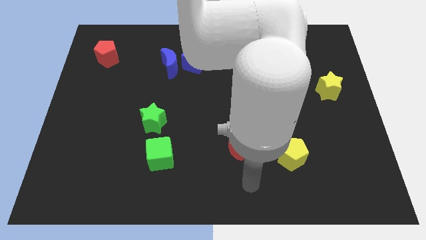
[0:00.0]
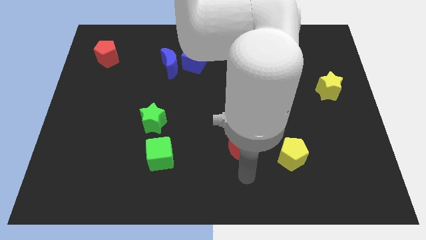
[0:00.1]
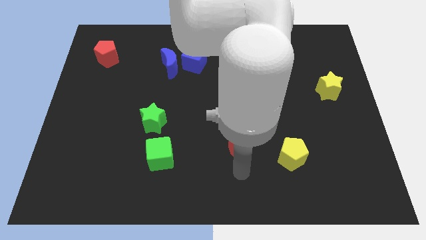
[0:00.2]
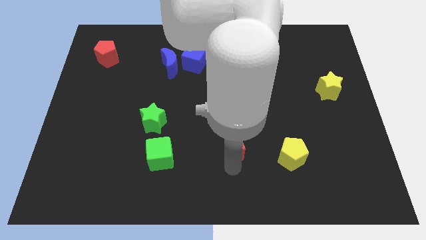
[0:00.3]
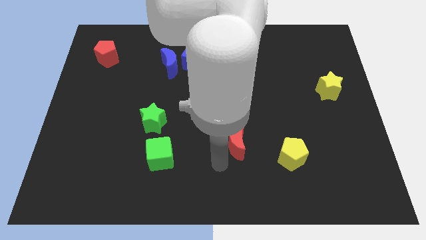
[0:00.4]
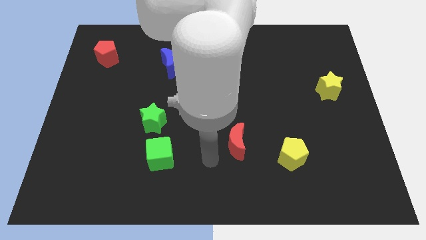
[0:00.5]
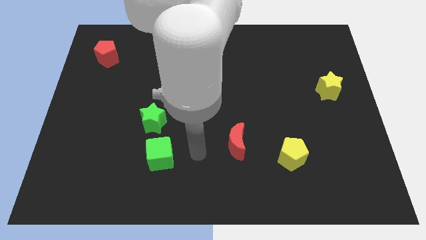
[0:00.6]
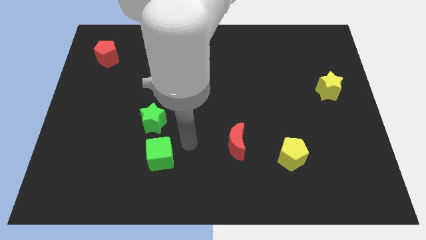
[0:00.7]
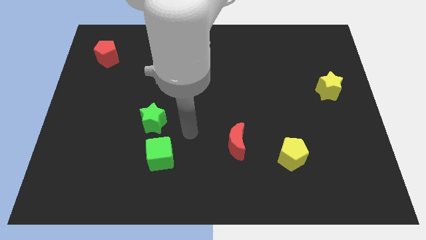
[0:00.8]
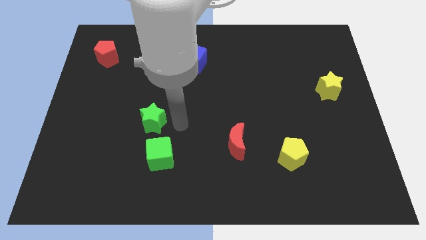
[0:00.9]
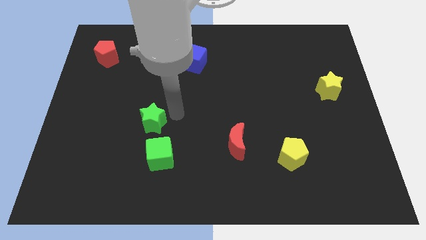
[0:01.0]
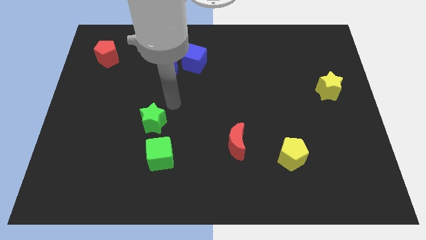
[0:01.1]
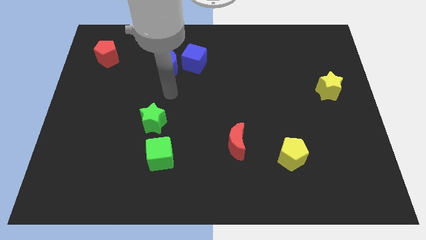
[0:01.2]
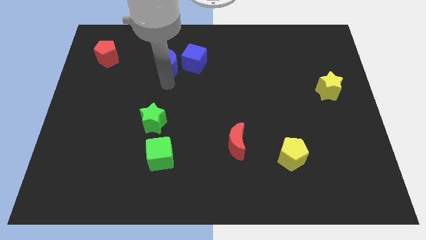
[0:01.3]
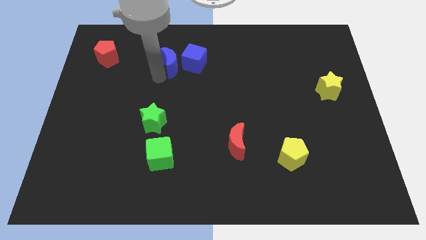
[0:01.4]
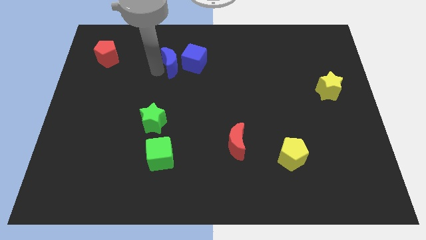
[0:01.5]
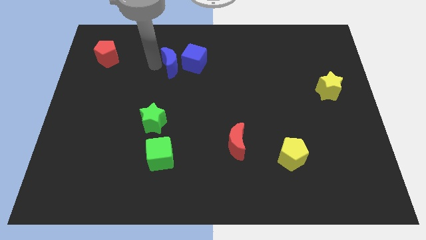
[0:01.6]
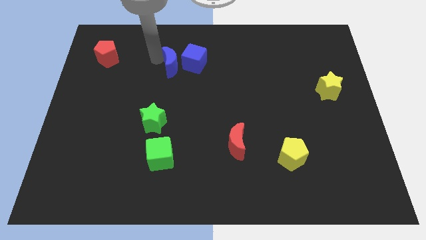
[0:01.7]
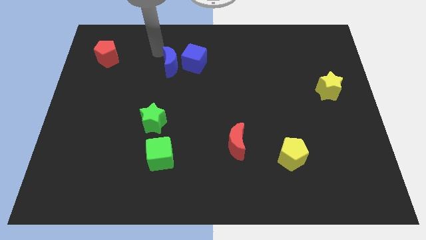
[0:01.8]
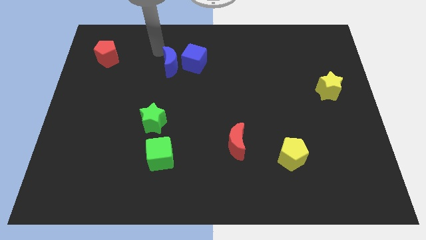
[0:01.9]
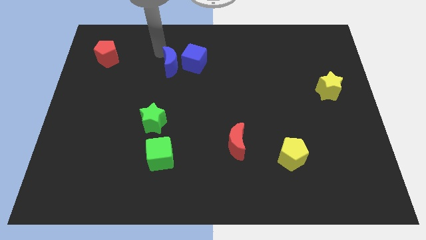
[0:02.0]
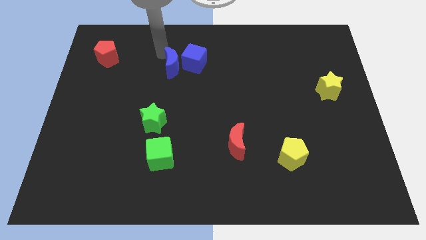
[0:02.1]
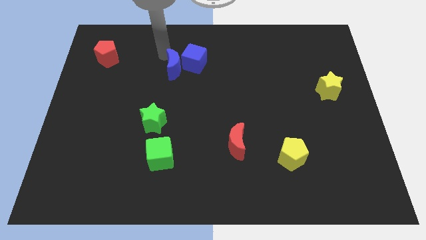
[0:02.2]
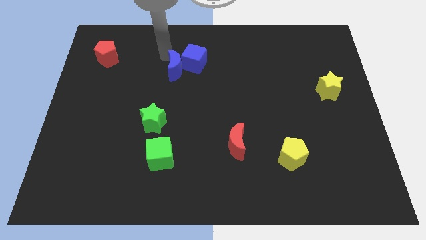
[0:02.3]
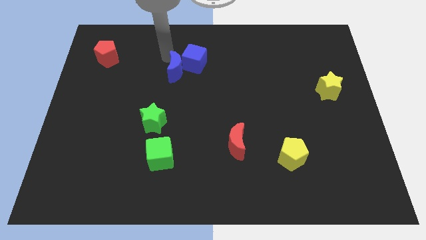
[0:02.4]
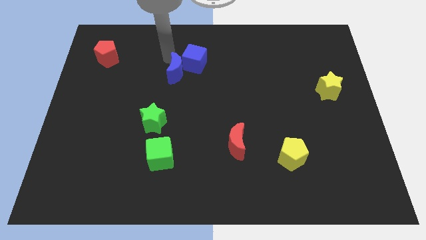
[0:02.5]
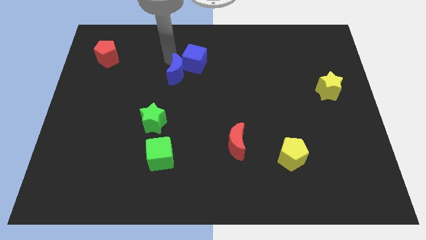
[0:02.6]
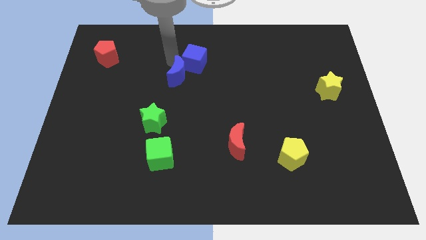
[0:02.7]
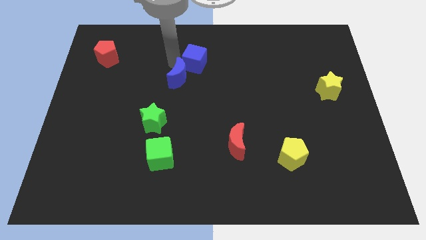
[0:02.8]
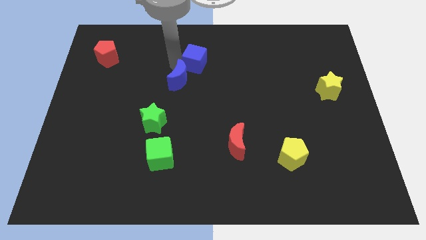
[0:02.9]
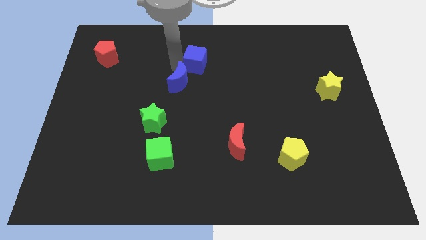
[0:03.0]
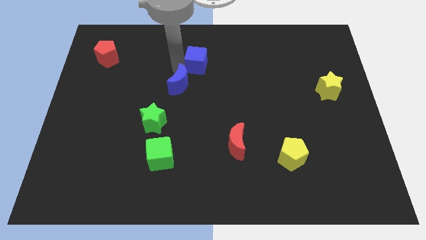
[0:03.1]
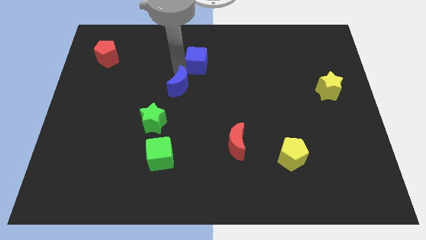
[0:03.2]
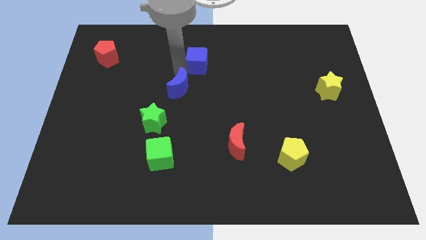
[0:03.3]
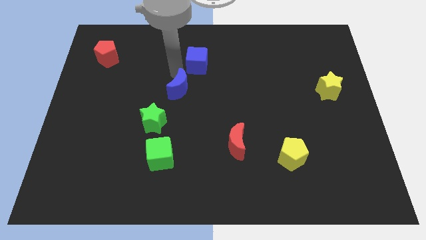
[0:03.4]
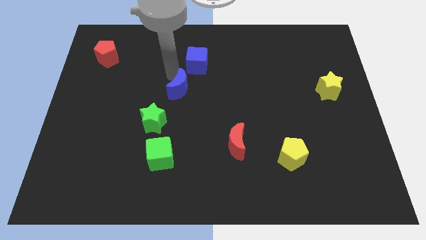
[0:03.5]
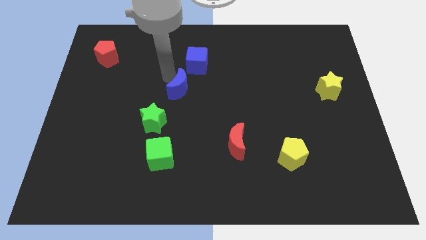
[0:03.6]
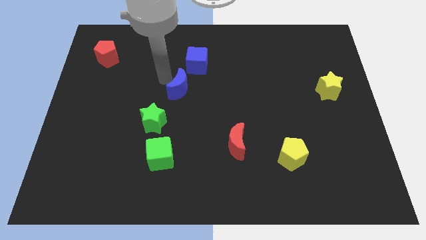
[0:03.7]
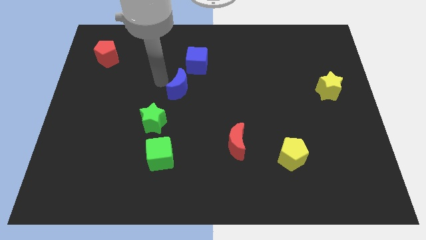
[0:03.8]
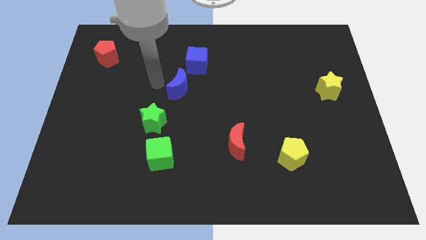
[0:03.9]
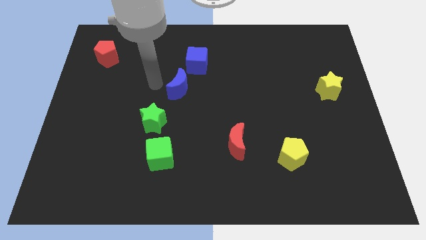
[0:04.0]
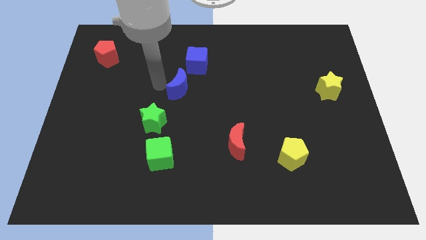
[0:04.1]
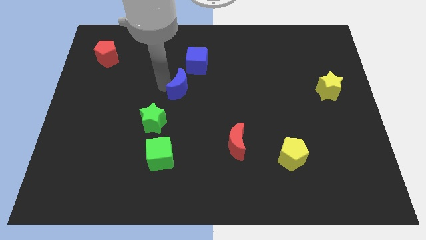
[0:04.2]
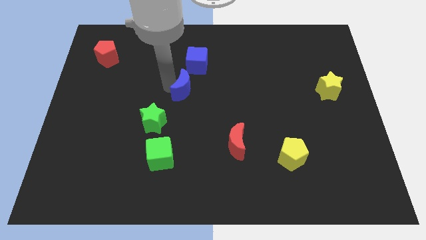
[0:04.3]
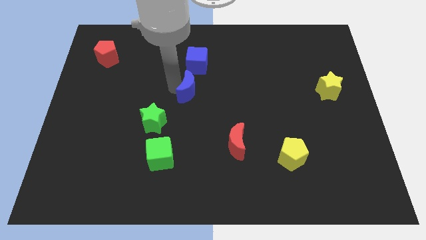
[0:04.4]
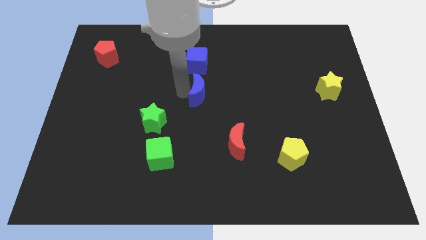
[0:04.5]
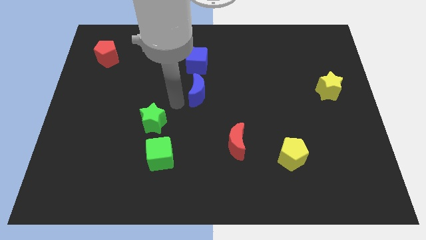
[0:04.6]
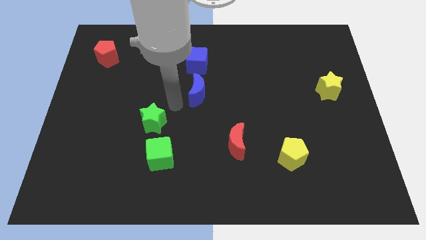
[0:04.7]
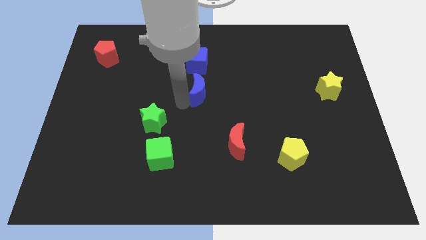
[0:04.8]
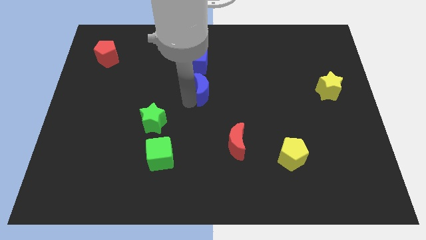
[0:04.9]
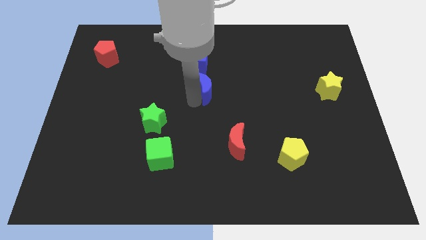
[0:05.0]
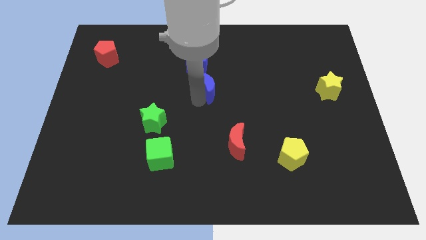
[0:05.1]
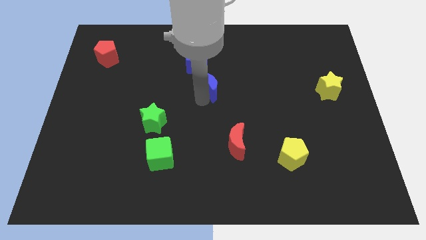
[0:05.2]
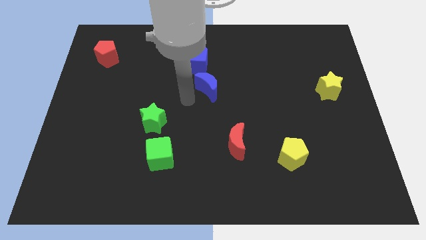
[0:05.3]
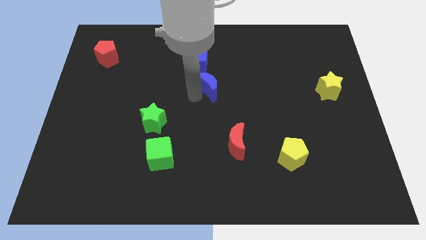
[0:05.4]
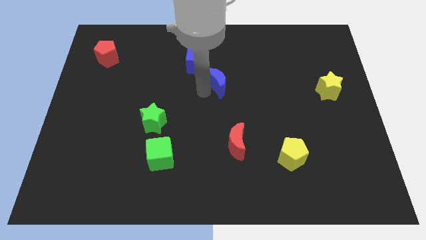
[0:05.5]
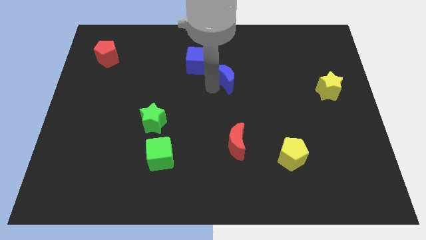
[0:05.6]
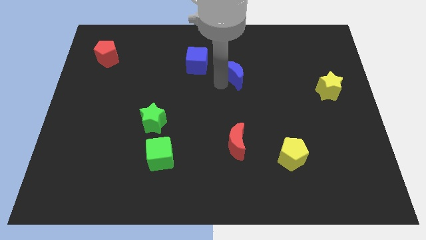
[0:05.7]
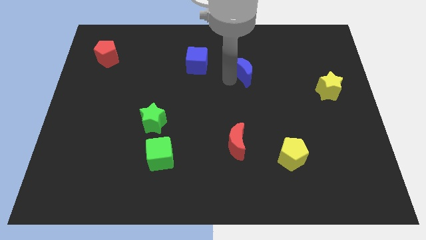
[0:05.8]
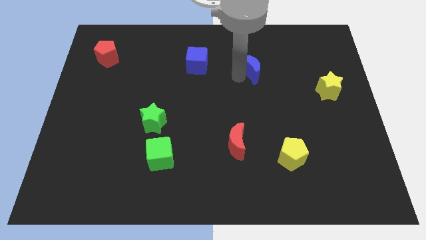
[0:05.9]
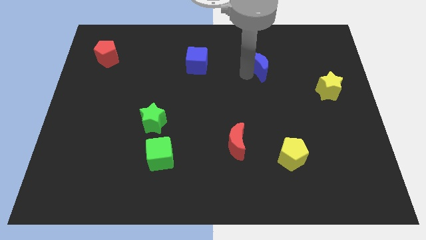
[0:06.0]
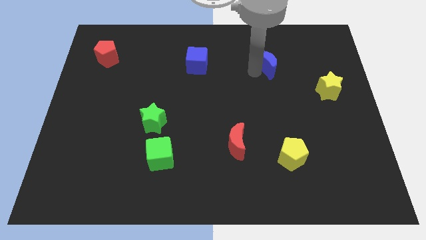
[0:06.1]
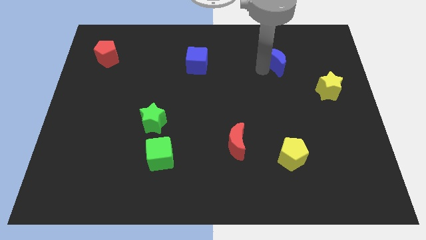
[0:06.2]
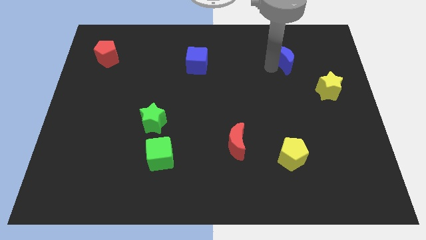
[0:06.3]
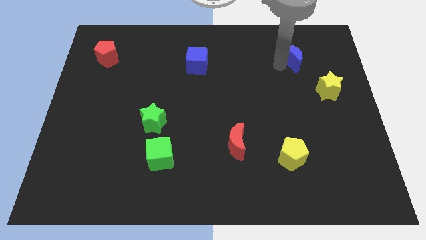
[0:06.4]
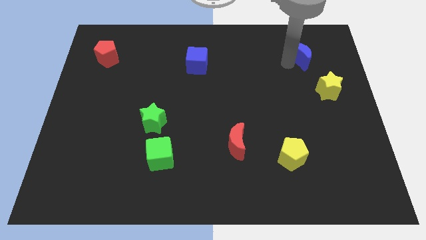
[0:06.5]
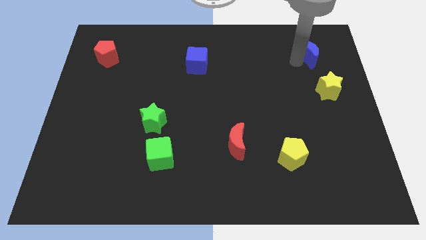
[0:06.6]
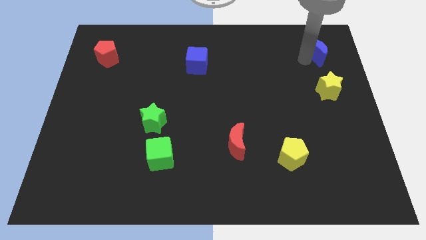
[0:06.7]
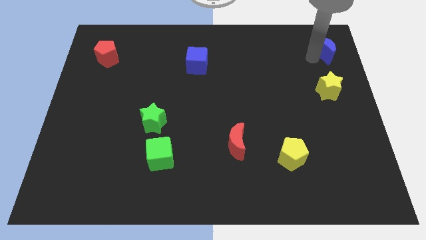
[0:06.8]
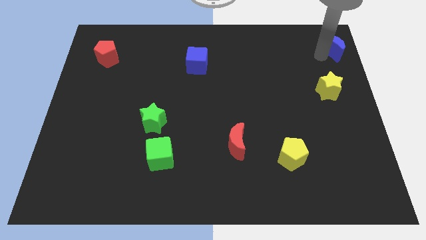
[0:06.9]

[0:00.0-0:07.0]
put the blue moon to the top right
